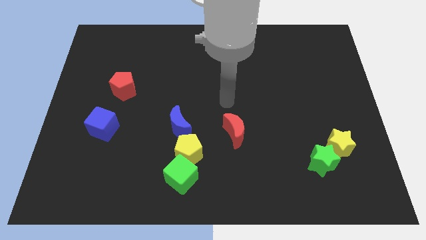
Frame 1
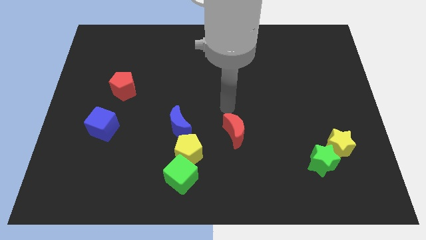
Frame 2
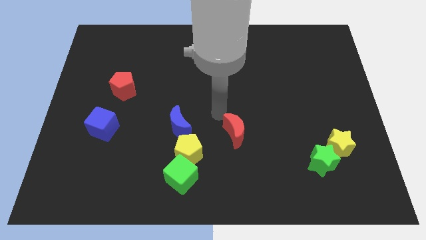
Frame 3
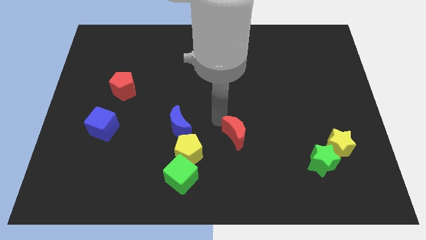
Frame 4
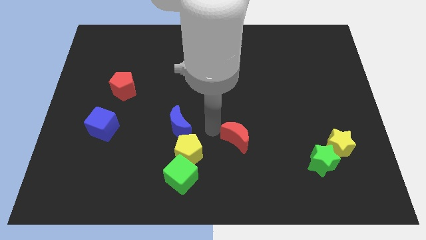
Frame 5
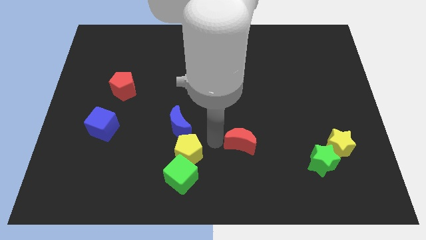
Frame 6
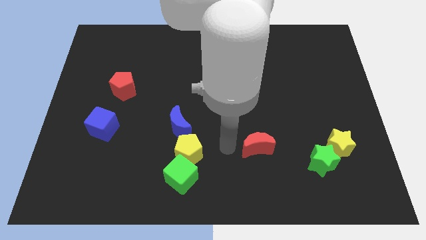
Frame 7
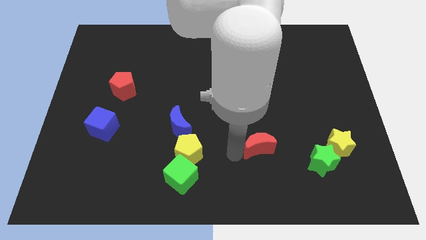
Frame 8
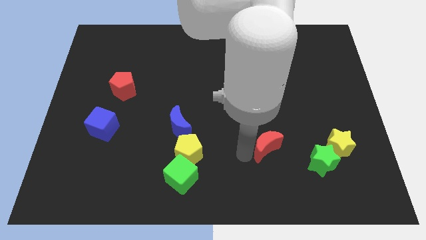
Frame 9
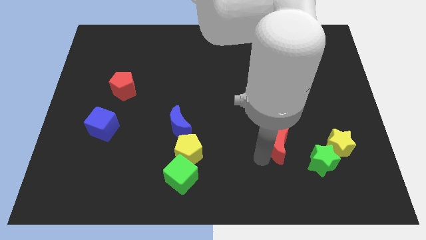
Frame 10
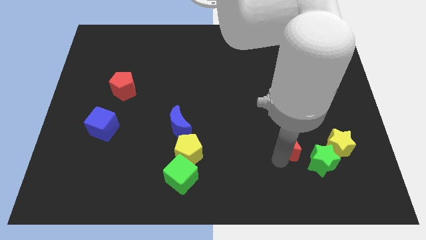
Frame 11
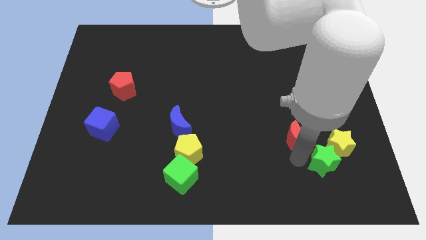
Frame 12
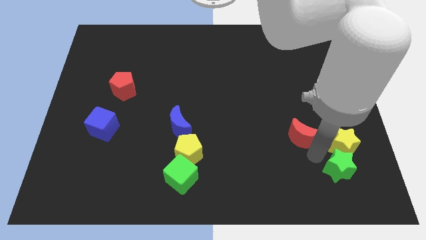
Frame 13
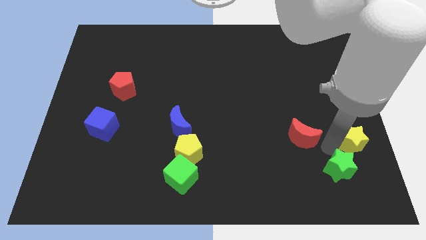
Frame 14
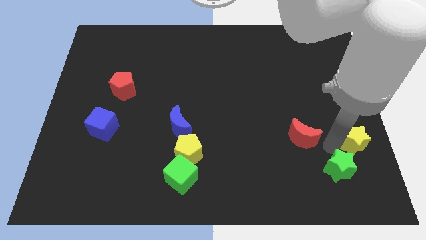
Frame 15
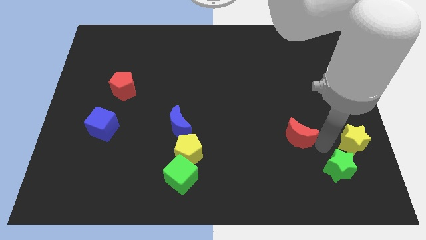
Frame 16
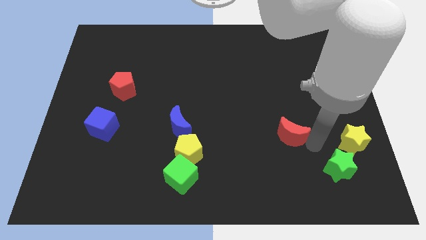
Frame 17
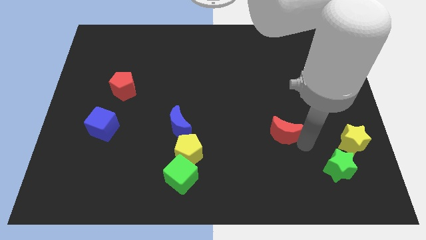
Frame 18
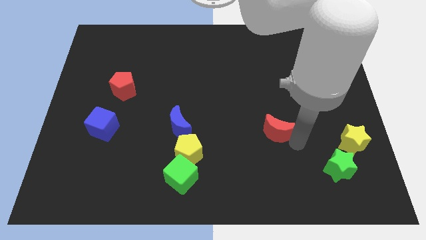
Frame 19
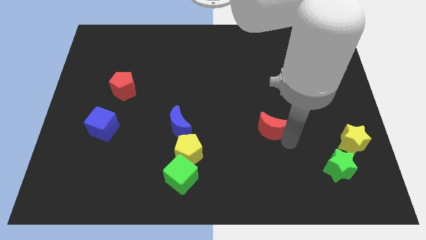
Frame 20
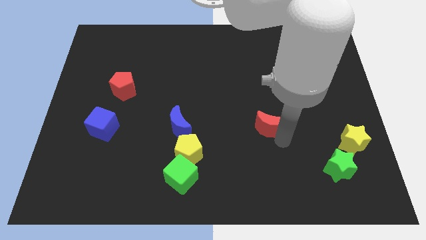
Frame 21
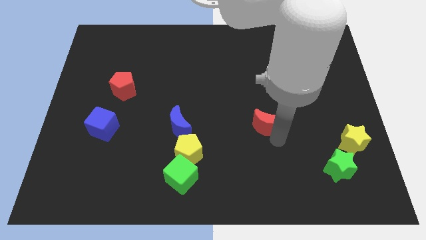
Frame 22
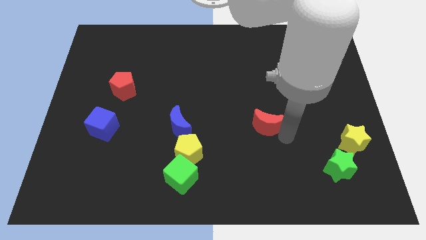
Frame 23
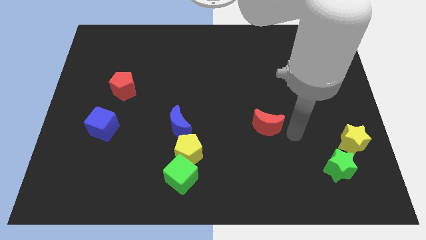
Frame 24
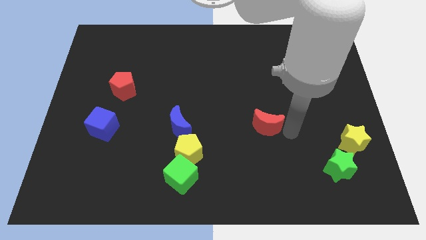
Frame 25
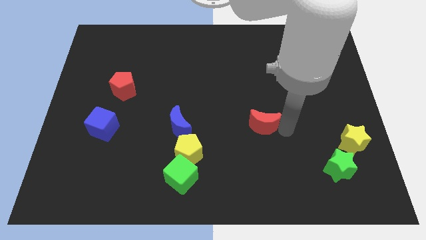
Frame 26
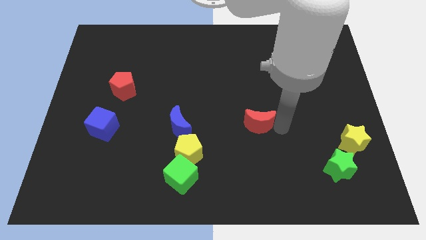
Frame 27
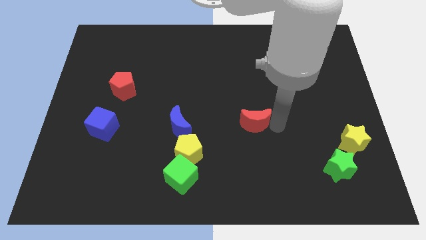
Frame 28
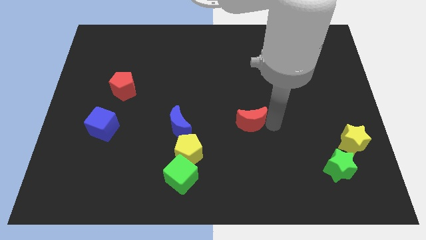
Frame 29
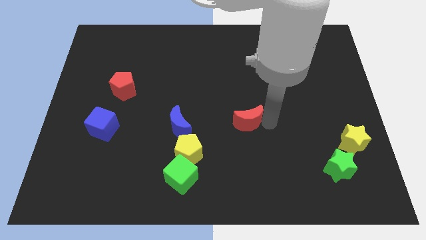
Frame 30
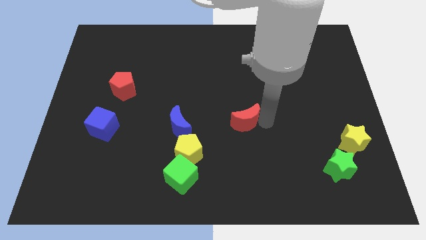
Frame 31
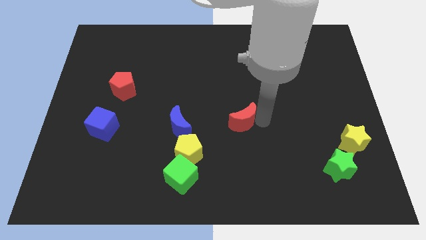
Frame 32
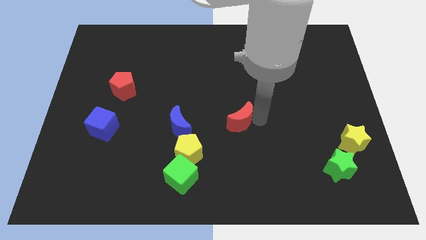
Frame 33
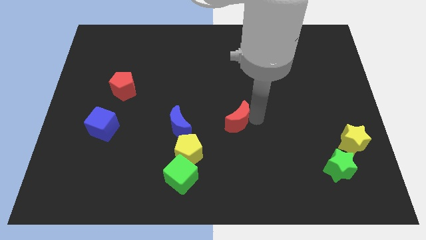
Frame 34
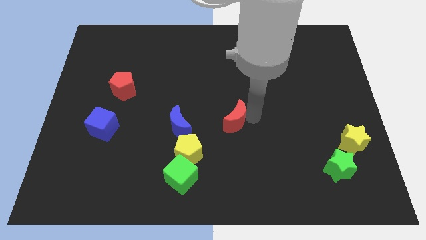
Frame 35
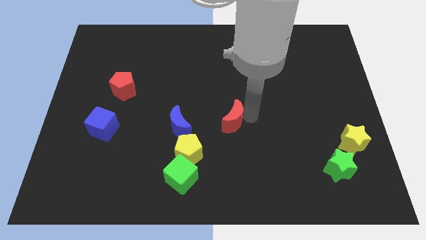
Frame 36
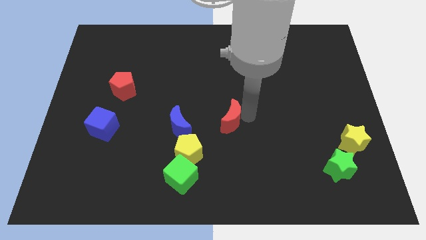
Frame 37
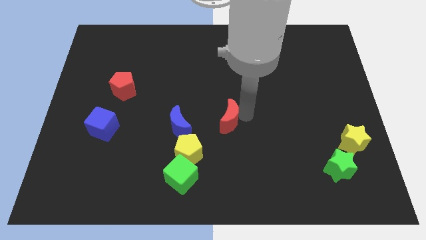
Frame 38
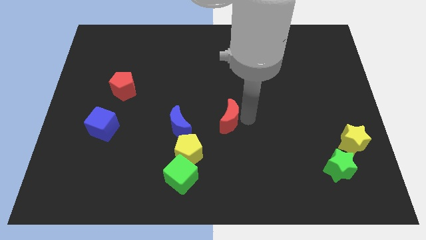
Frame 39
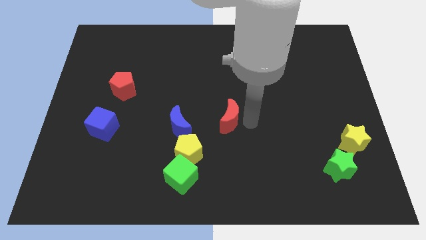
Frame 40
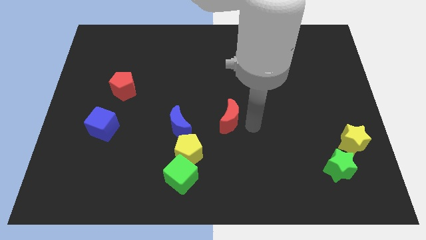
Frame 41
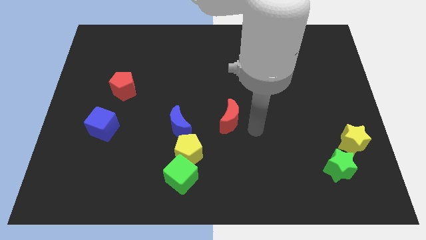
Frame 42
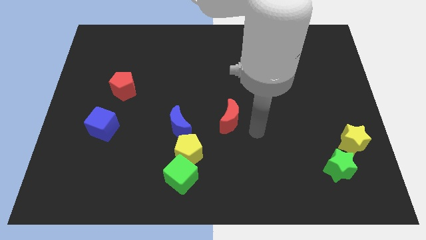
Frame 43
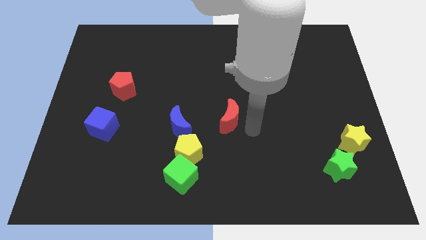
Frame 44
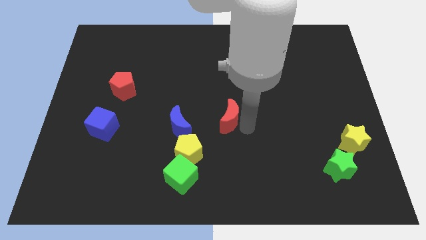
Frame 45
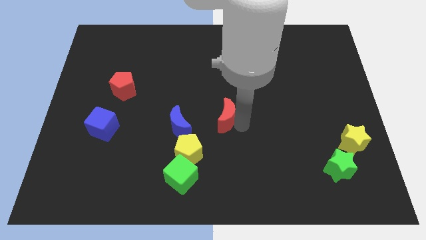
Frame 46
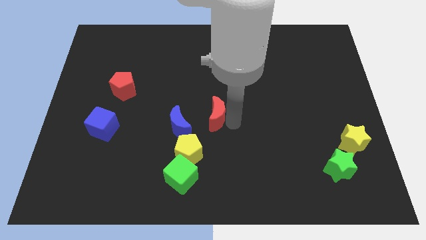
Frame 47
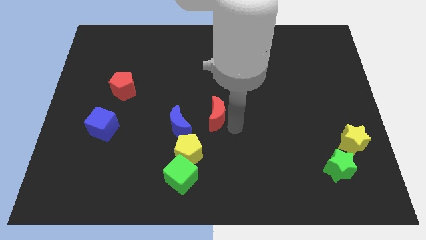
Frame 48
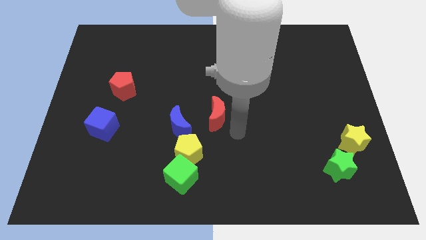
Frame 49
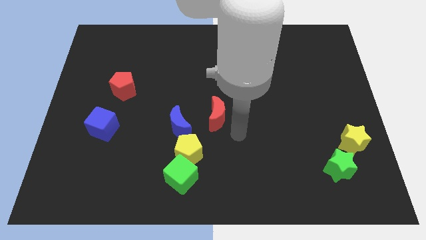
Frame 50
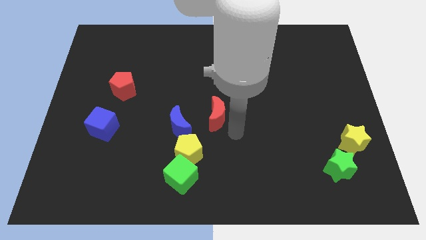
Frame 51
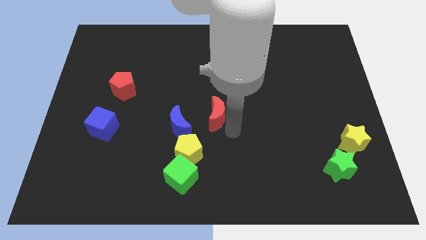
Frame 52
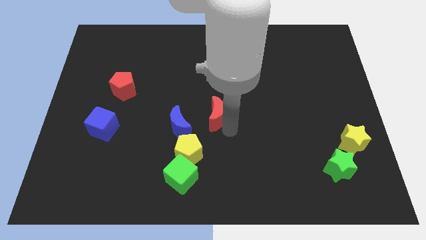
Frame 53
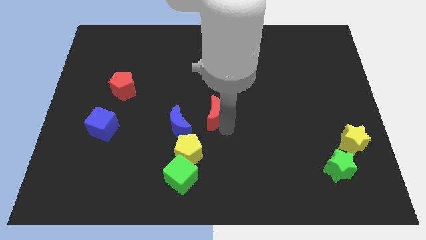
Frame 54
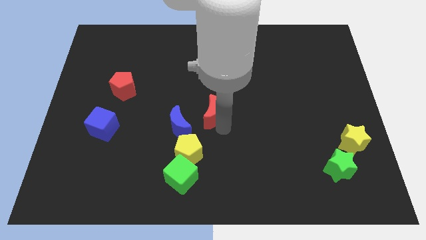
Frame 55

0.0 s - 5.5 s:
slide the red moon up and to the left diagonally a bit

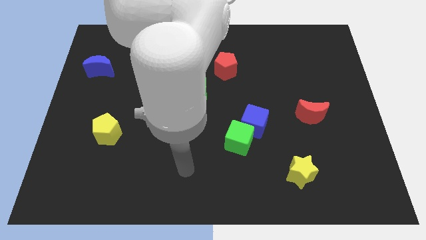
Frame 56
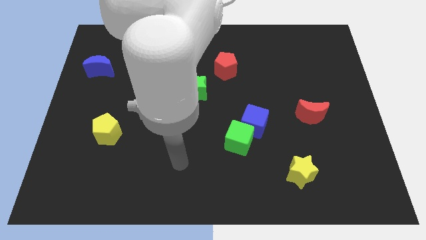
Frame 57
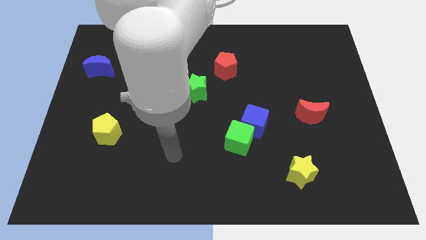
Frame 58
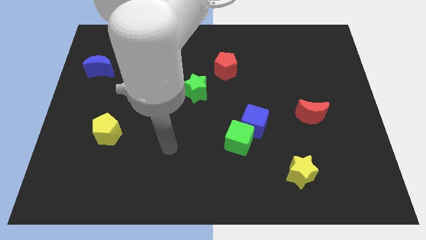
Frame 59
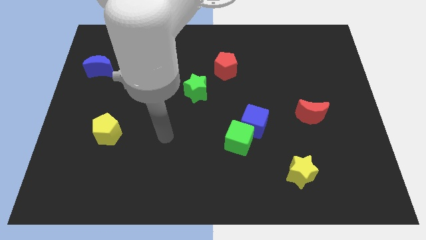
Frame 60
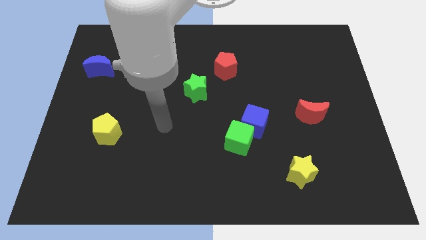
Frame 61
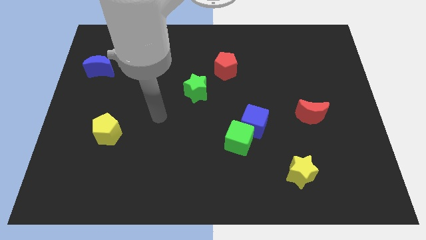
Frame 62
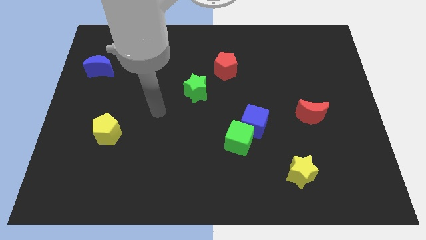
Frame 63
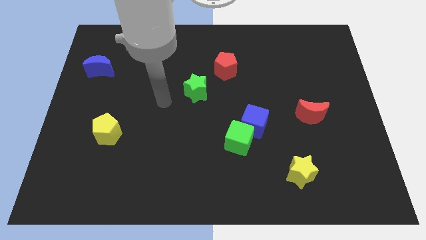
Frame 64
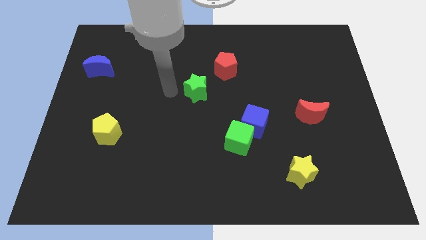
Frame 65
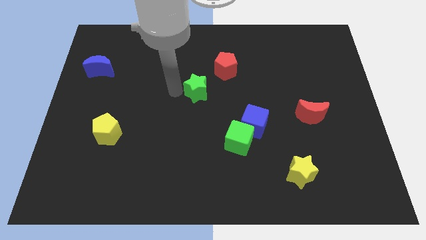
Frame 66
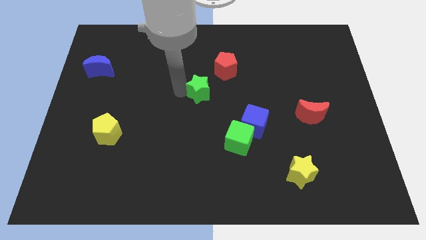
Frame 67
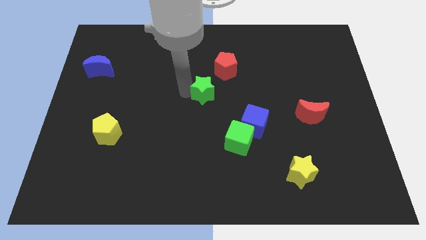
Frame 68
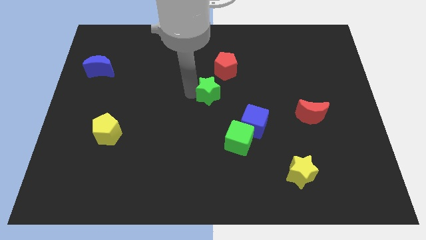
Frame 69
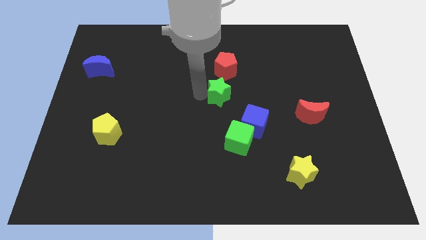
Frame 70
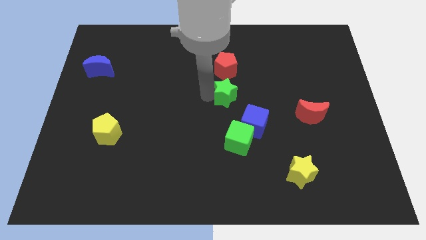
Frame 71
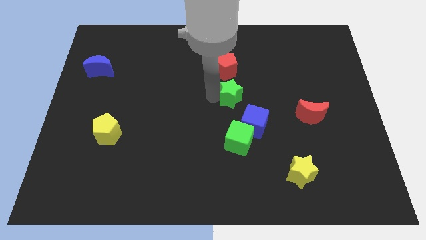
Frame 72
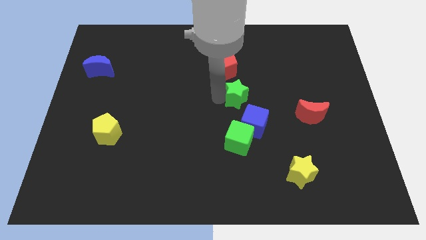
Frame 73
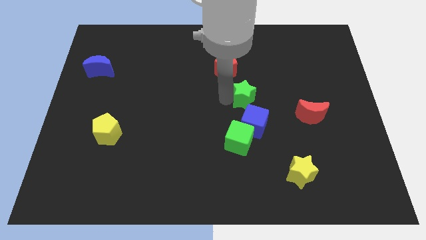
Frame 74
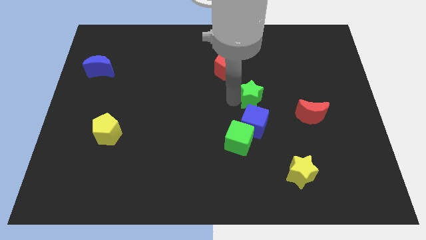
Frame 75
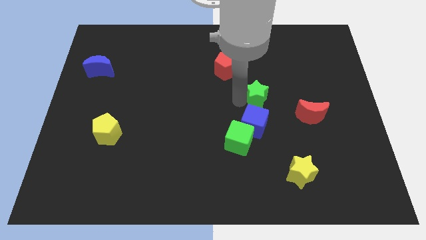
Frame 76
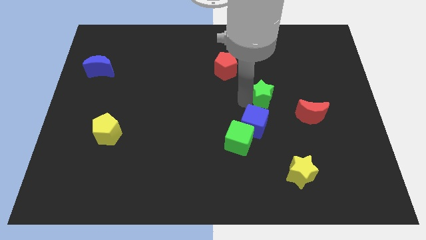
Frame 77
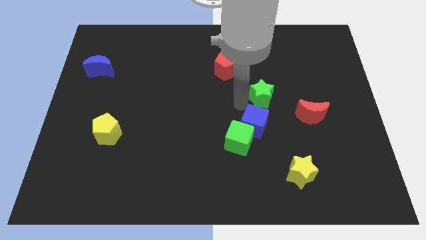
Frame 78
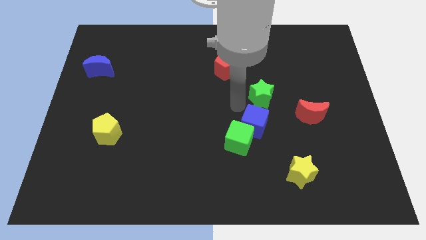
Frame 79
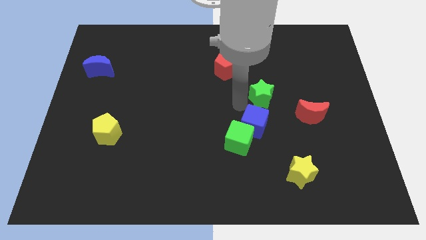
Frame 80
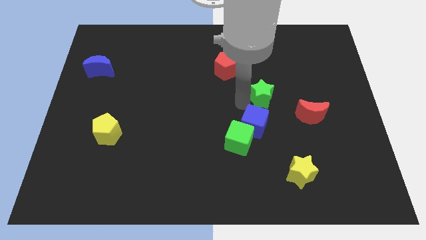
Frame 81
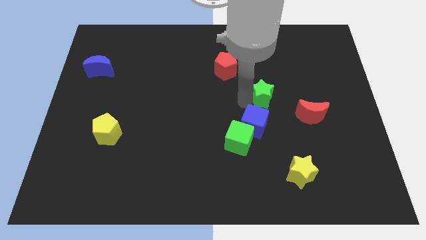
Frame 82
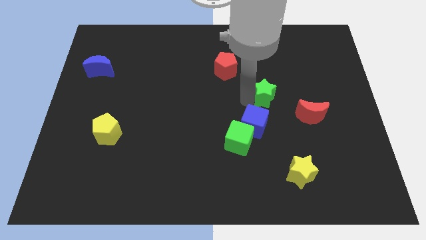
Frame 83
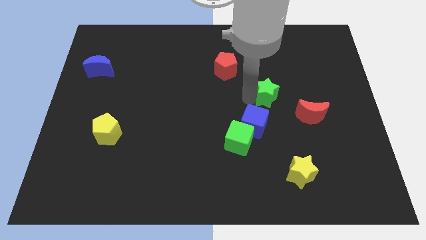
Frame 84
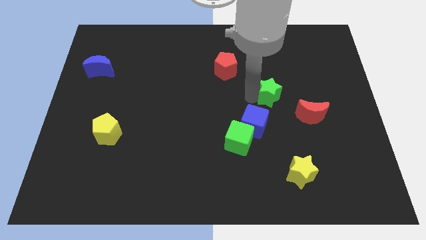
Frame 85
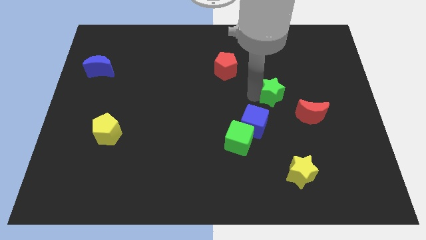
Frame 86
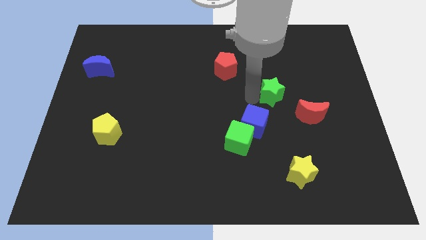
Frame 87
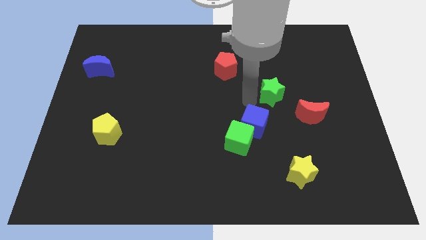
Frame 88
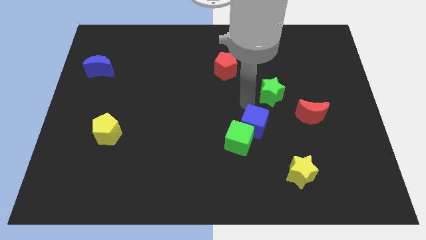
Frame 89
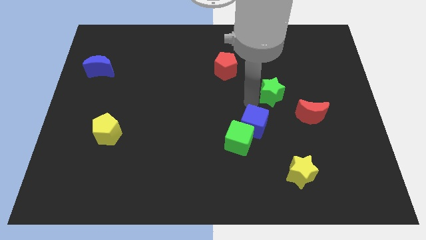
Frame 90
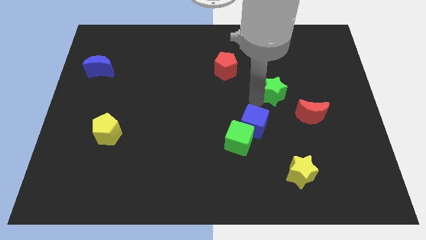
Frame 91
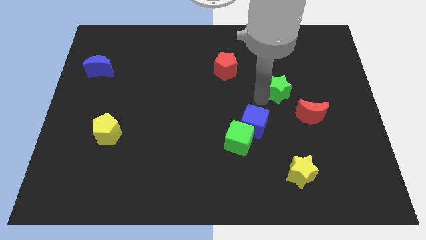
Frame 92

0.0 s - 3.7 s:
push the green star right
